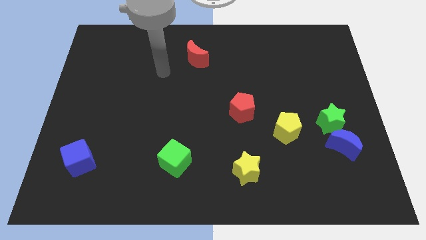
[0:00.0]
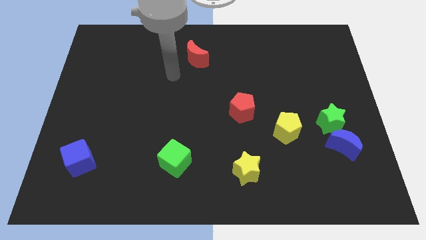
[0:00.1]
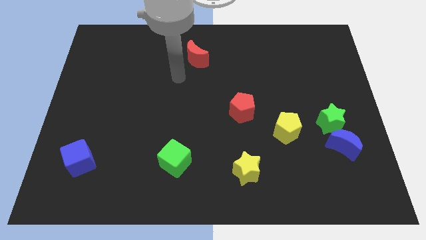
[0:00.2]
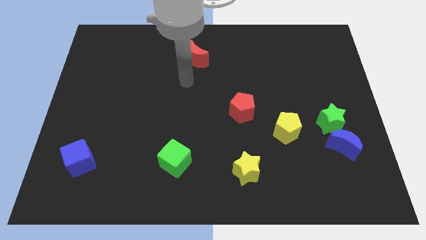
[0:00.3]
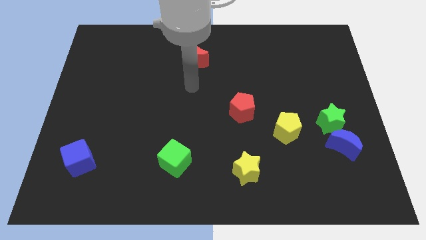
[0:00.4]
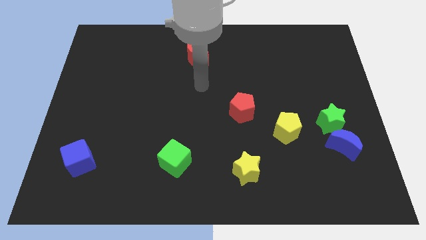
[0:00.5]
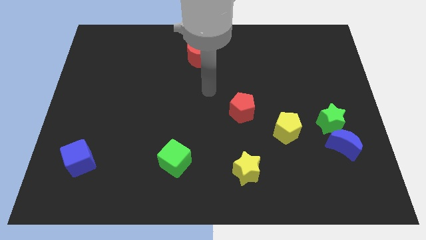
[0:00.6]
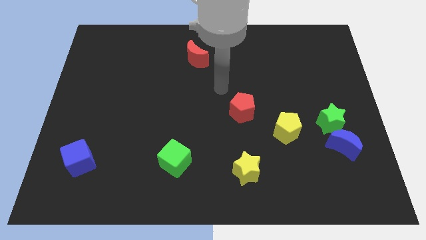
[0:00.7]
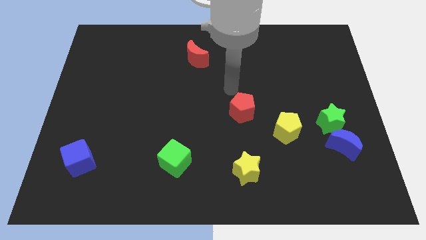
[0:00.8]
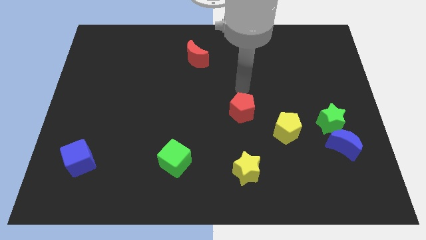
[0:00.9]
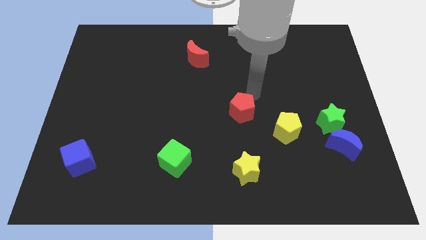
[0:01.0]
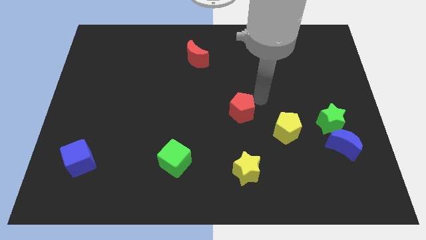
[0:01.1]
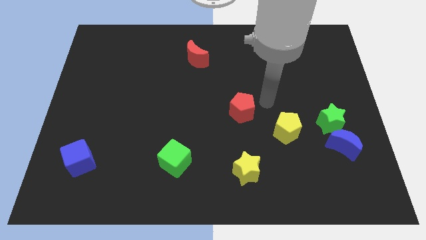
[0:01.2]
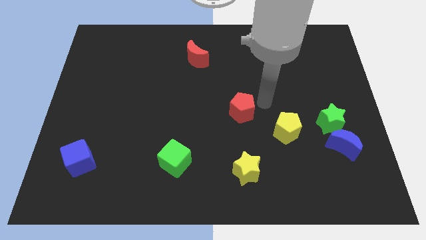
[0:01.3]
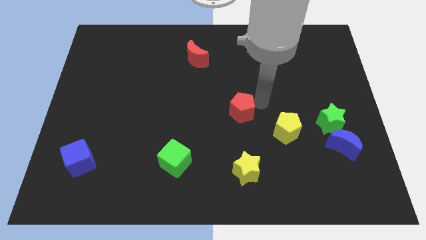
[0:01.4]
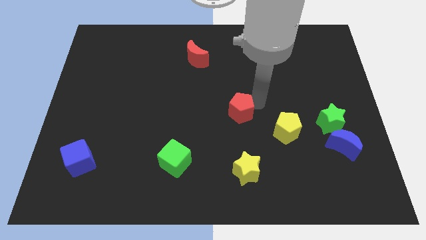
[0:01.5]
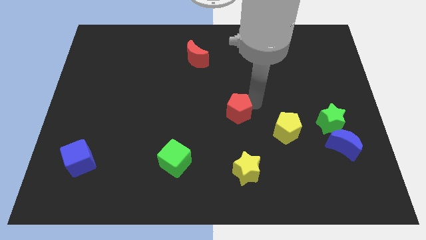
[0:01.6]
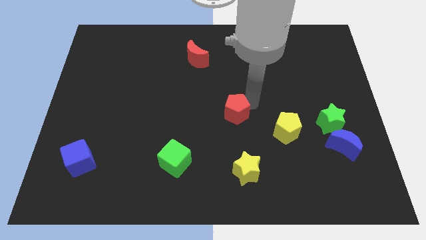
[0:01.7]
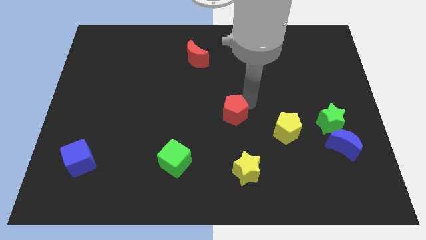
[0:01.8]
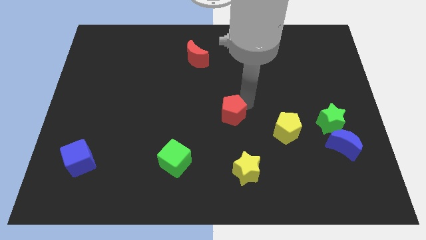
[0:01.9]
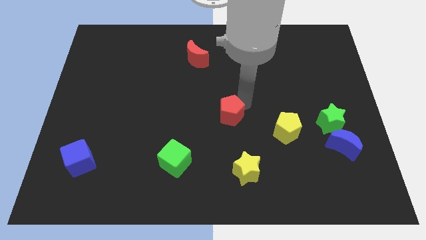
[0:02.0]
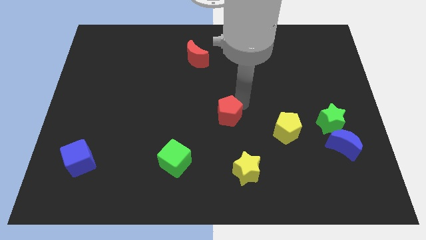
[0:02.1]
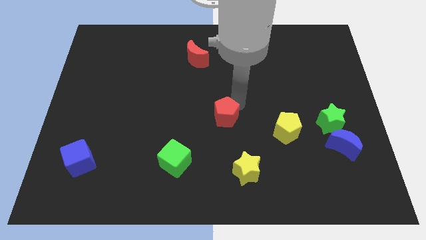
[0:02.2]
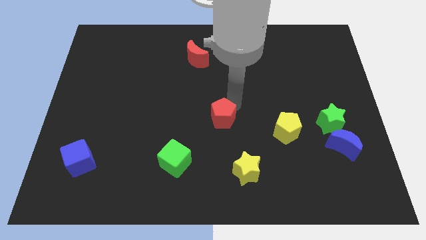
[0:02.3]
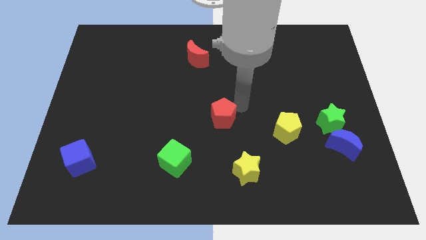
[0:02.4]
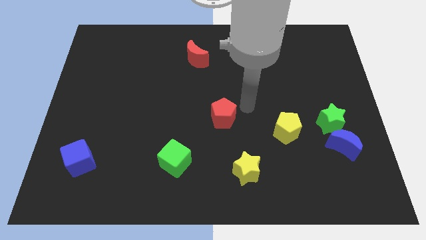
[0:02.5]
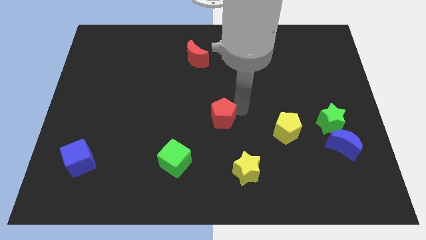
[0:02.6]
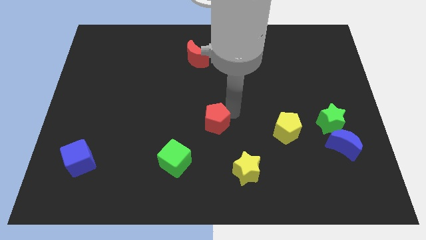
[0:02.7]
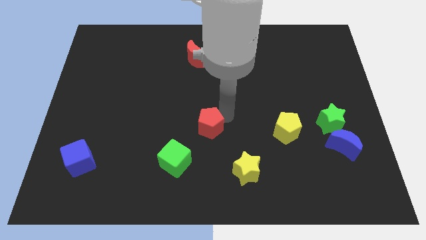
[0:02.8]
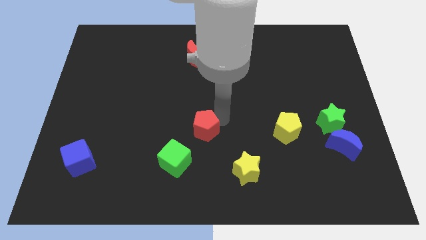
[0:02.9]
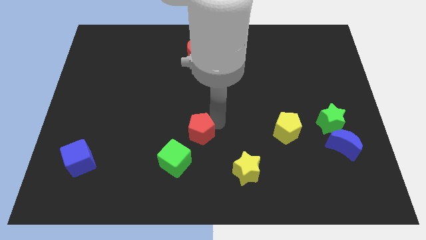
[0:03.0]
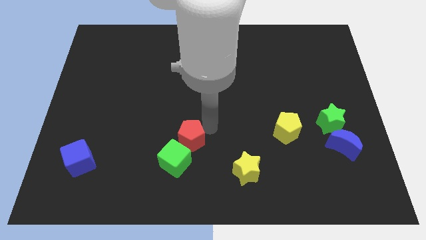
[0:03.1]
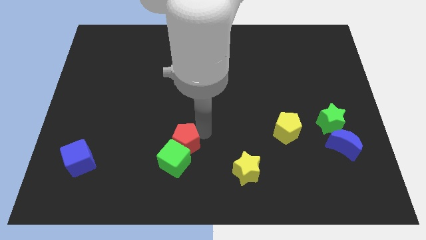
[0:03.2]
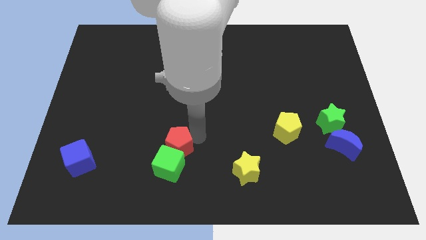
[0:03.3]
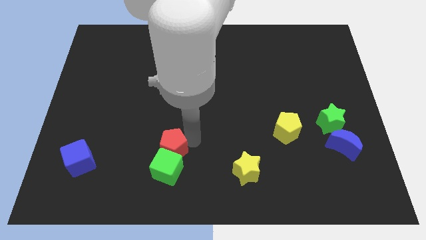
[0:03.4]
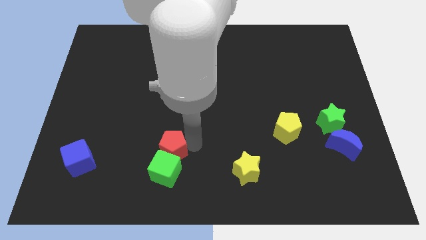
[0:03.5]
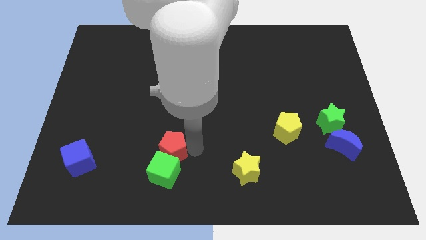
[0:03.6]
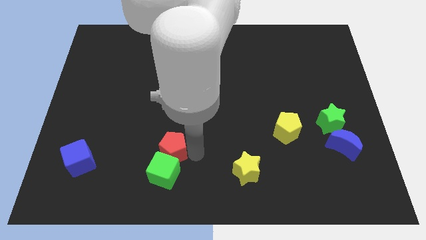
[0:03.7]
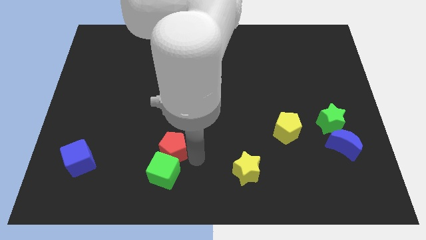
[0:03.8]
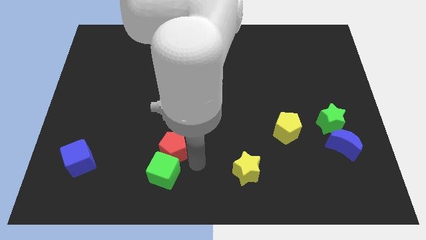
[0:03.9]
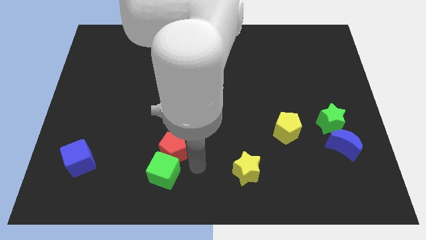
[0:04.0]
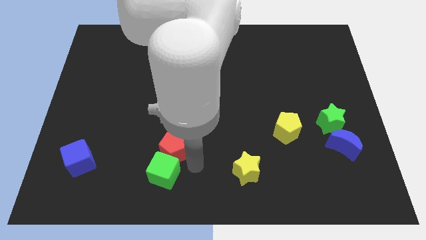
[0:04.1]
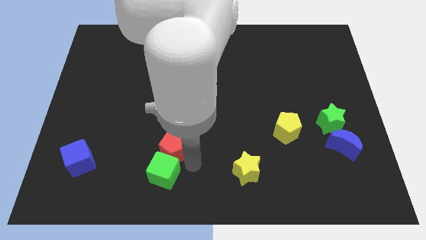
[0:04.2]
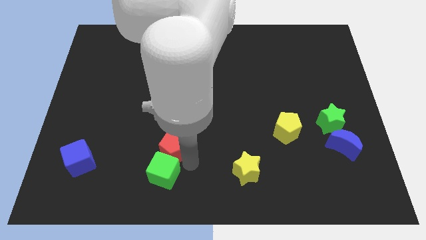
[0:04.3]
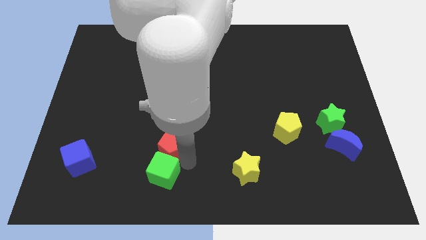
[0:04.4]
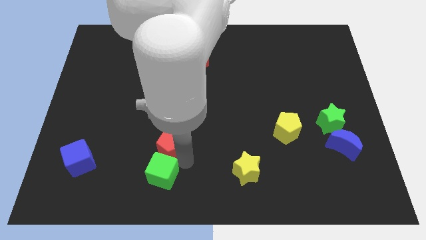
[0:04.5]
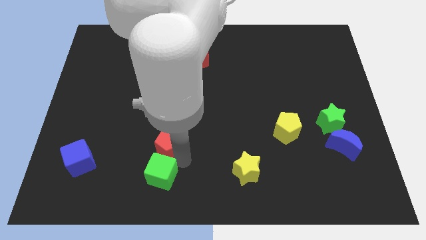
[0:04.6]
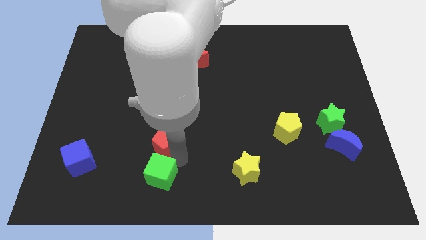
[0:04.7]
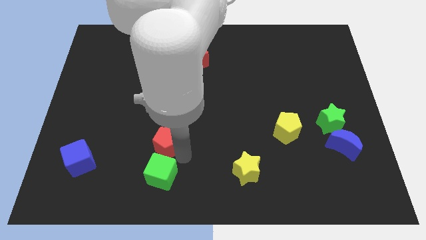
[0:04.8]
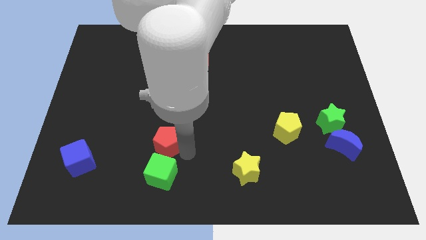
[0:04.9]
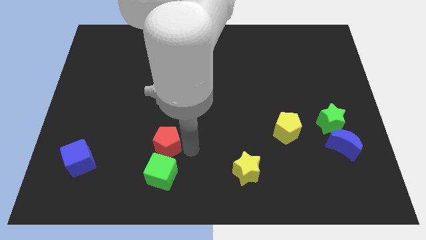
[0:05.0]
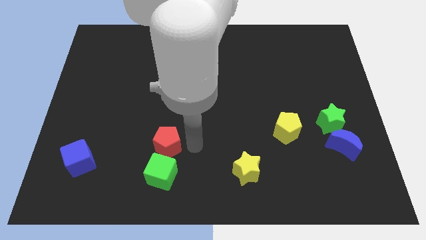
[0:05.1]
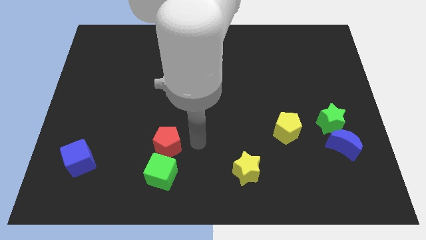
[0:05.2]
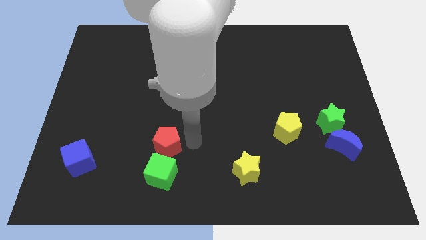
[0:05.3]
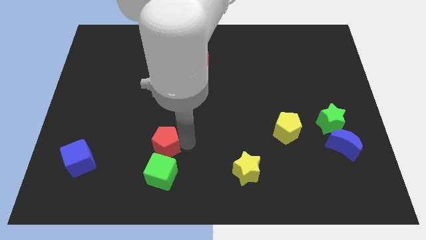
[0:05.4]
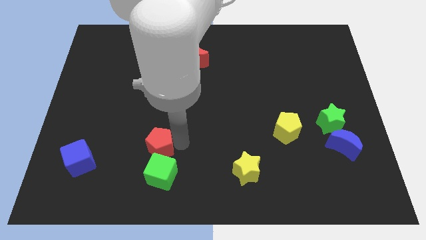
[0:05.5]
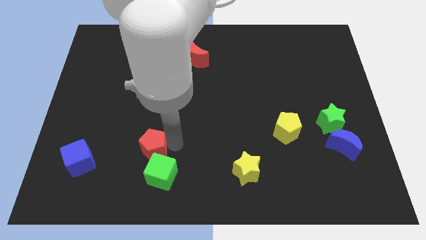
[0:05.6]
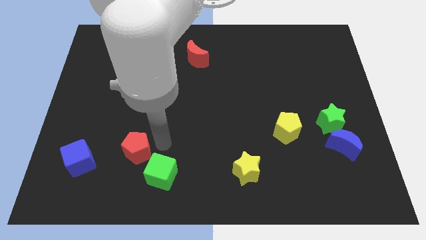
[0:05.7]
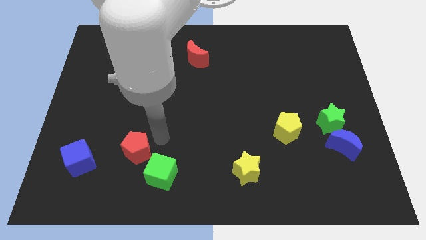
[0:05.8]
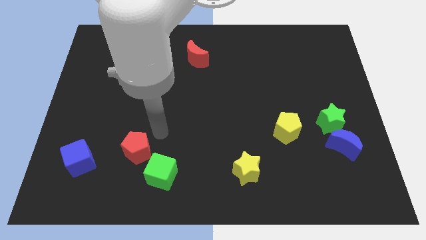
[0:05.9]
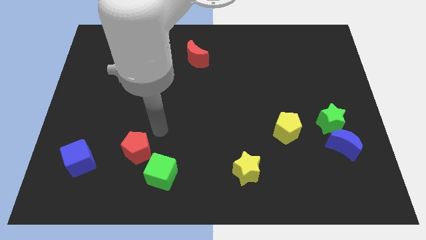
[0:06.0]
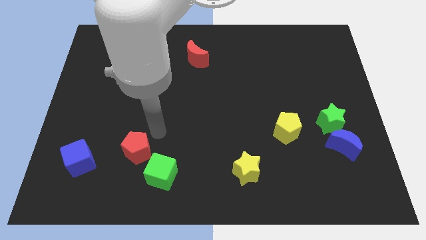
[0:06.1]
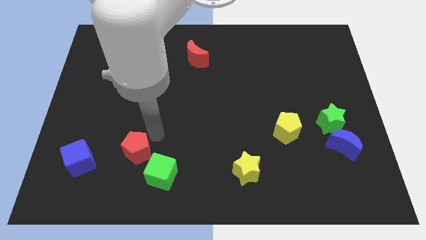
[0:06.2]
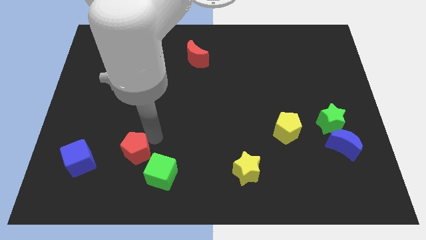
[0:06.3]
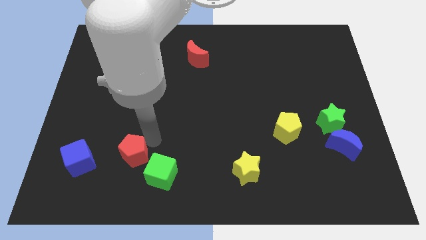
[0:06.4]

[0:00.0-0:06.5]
push the red pentagon to the left side of the green cube

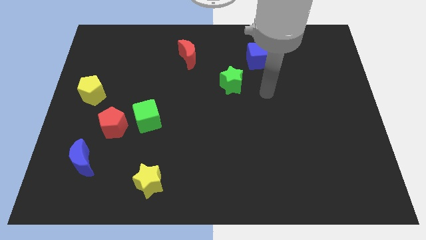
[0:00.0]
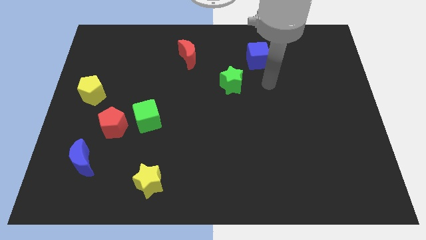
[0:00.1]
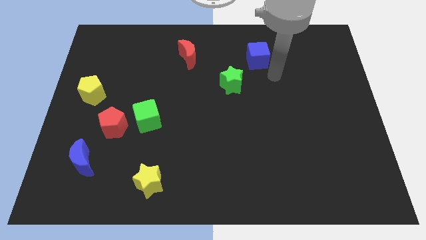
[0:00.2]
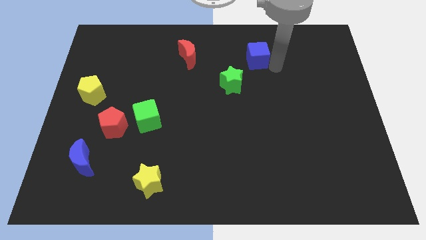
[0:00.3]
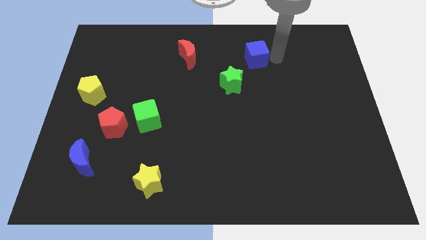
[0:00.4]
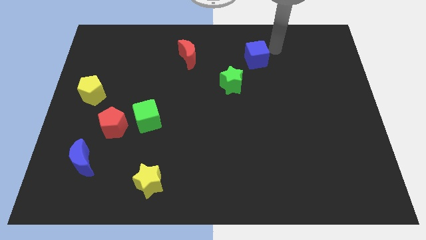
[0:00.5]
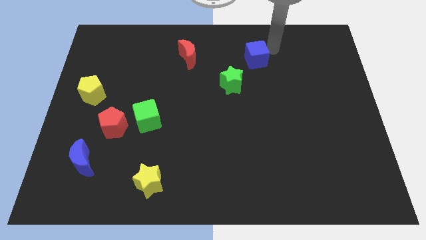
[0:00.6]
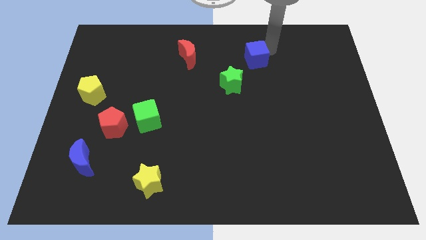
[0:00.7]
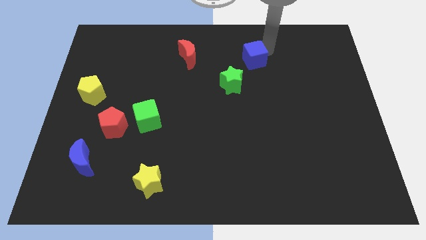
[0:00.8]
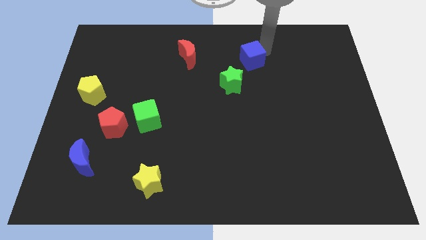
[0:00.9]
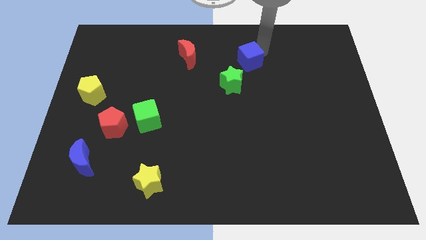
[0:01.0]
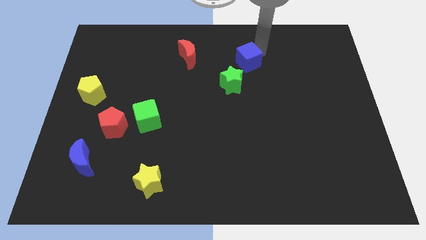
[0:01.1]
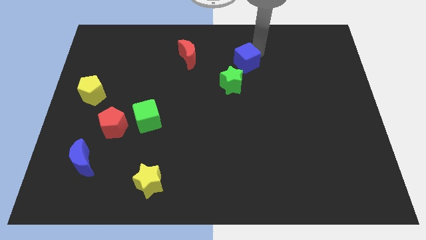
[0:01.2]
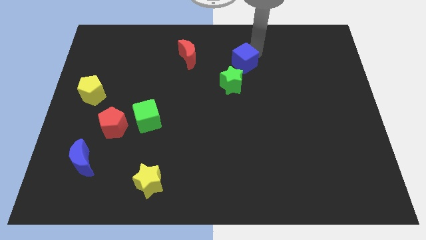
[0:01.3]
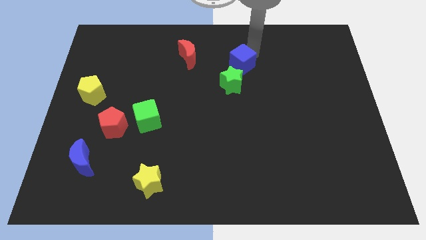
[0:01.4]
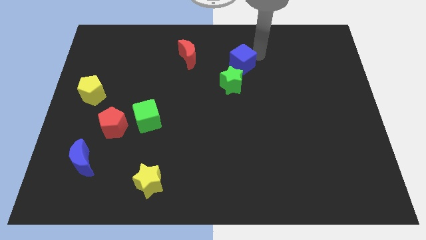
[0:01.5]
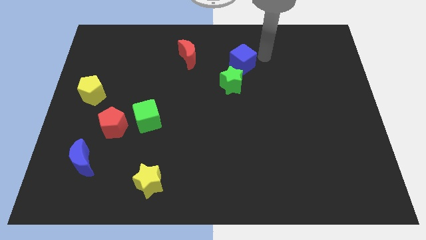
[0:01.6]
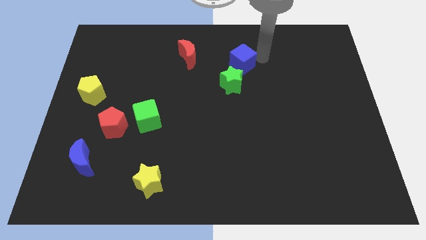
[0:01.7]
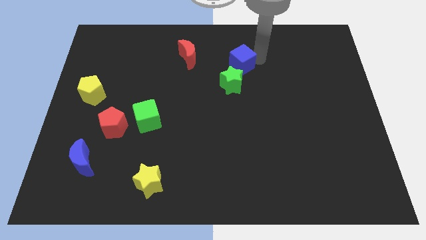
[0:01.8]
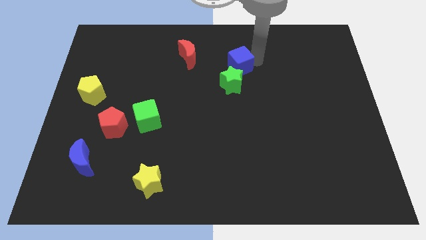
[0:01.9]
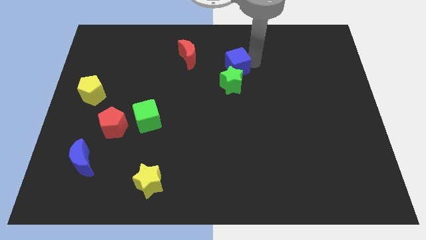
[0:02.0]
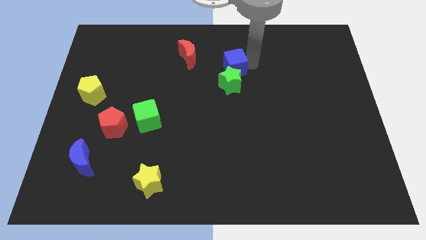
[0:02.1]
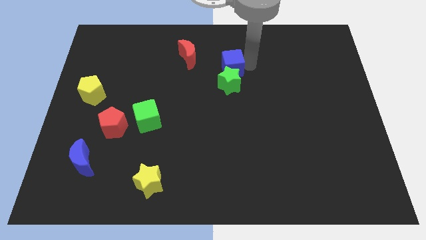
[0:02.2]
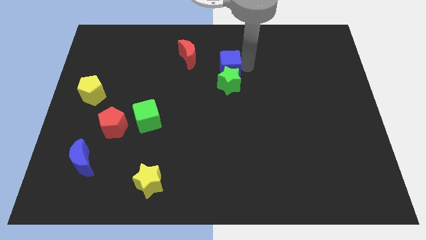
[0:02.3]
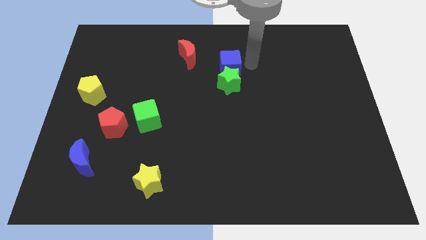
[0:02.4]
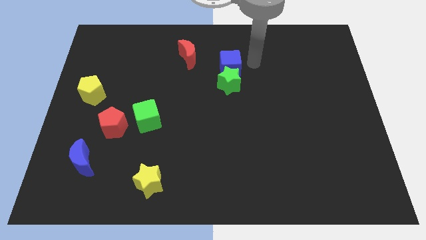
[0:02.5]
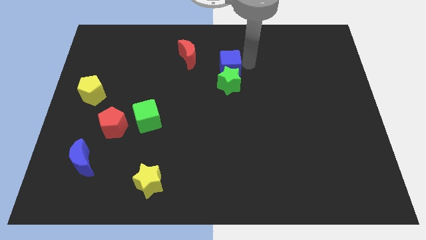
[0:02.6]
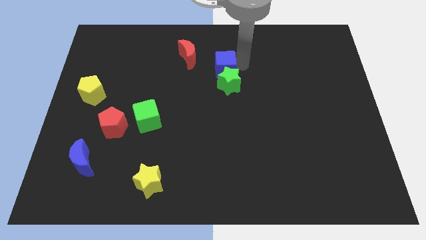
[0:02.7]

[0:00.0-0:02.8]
move the blue cube to the bottom right side of the red moon
